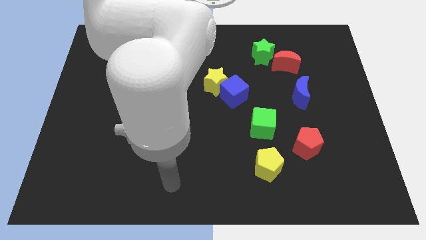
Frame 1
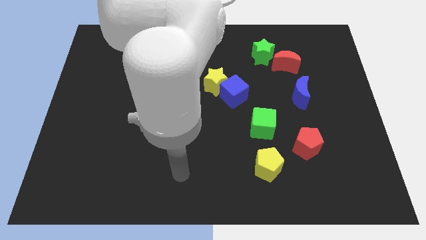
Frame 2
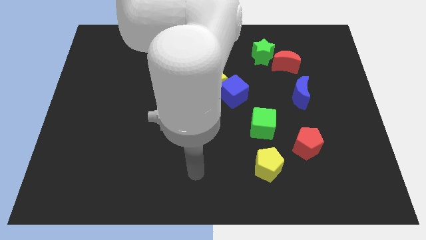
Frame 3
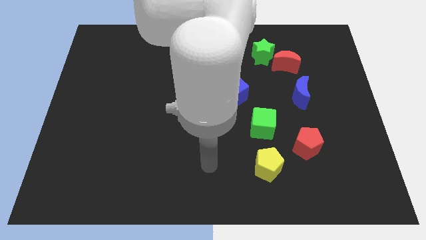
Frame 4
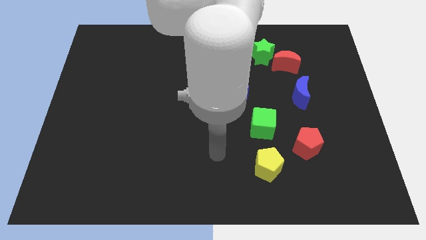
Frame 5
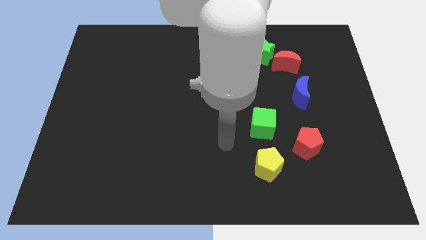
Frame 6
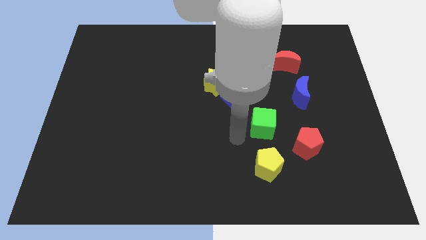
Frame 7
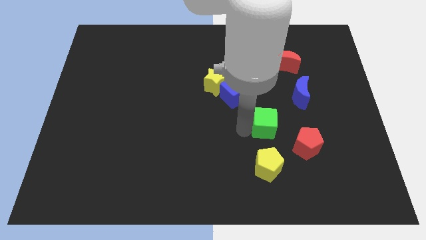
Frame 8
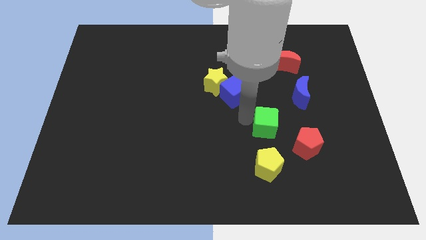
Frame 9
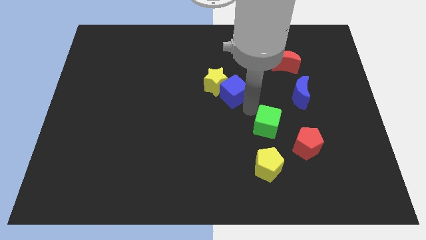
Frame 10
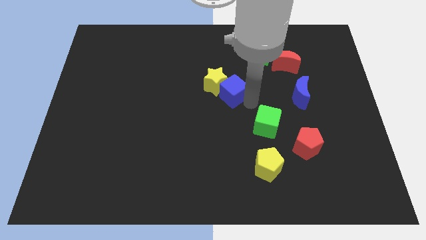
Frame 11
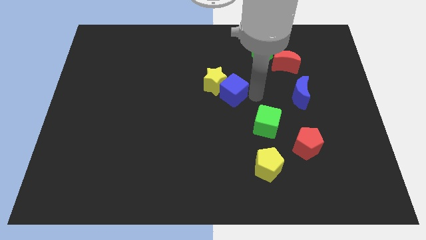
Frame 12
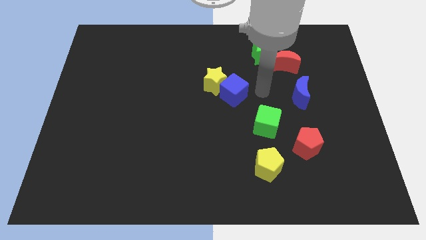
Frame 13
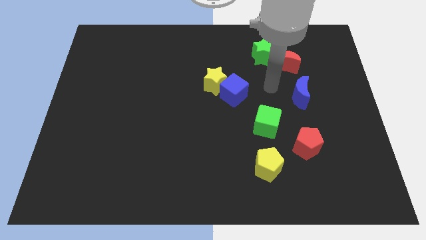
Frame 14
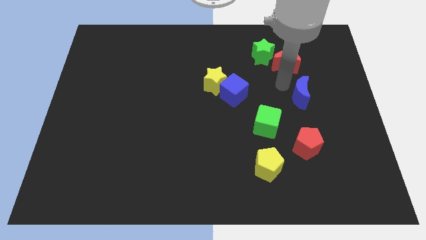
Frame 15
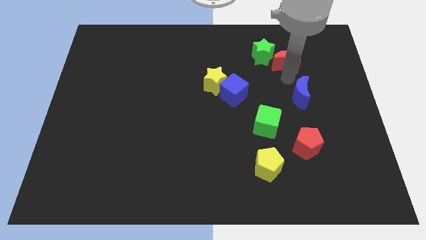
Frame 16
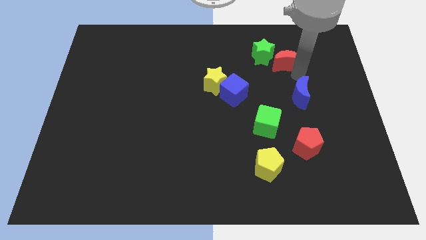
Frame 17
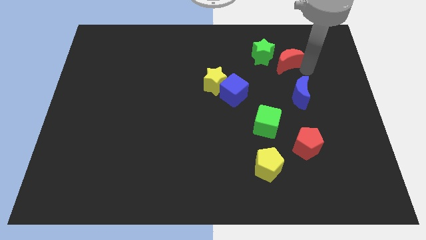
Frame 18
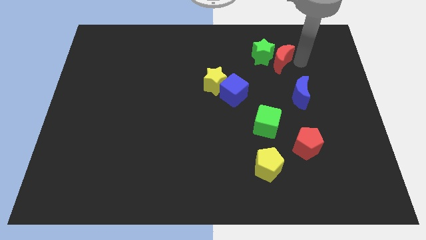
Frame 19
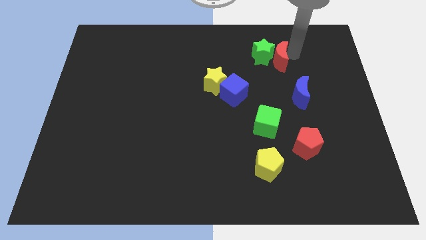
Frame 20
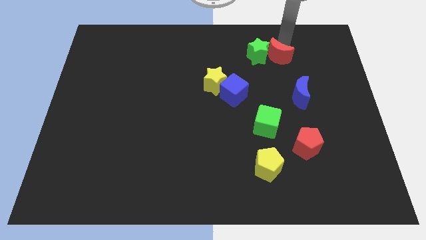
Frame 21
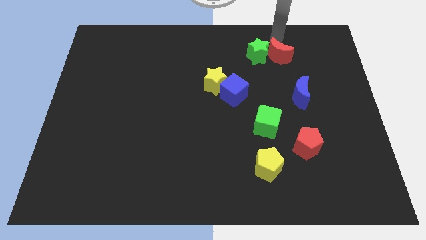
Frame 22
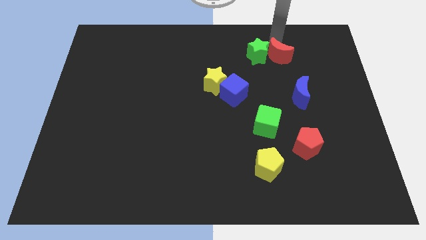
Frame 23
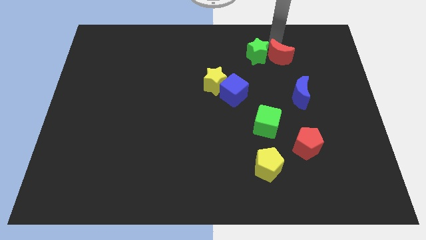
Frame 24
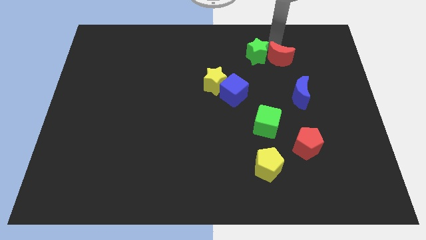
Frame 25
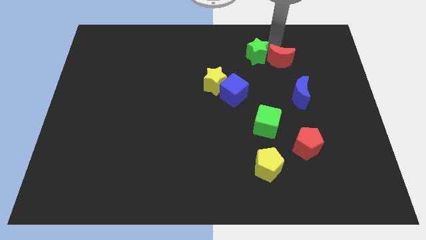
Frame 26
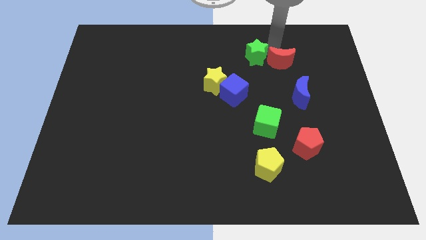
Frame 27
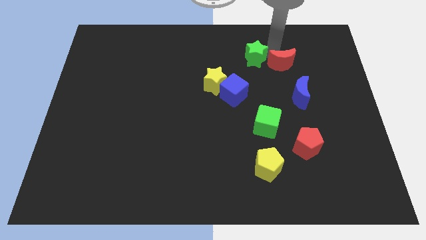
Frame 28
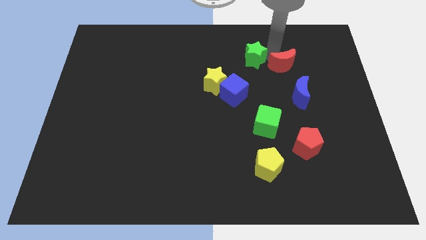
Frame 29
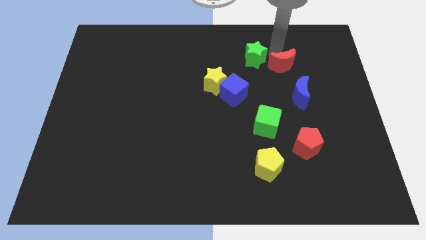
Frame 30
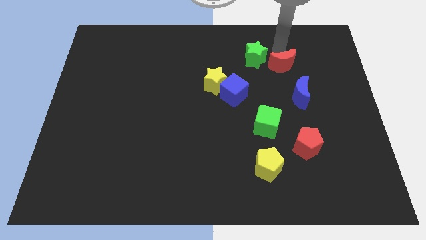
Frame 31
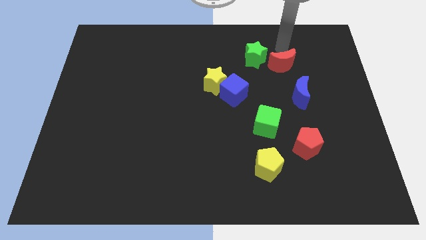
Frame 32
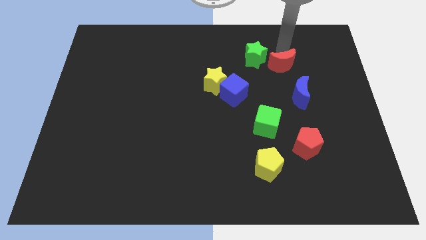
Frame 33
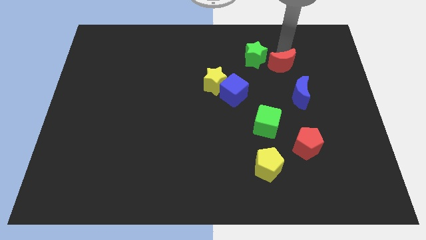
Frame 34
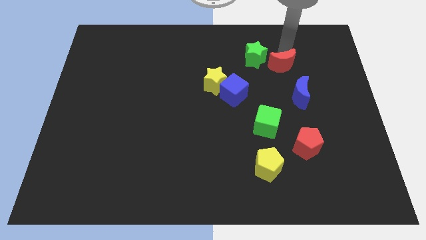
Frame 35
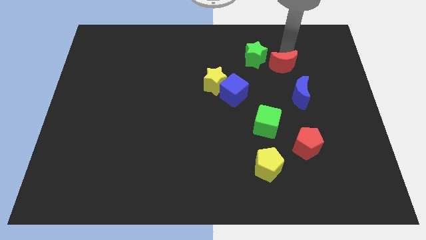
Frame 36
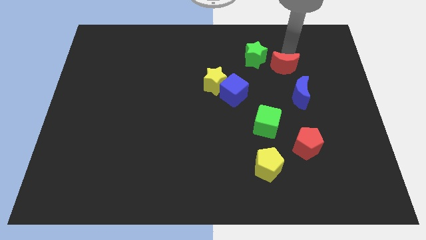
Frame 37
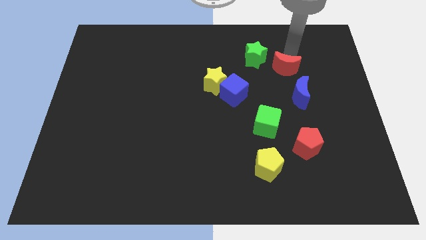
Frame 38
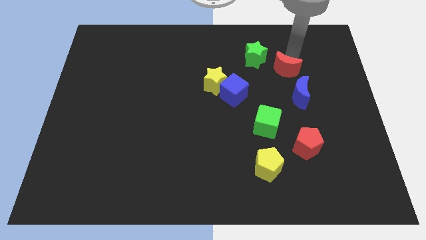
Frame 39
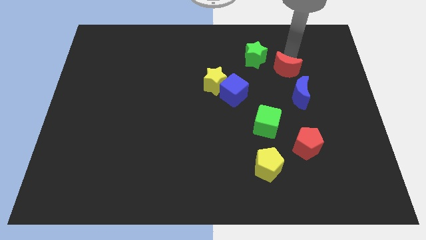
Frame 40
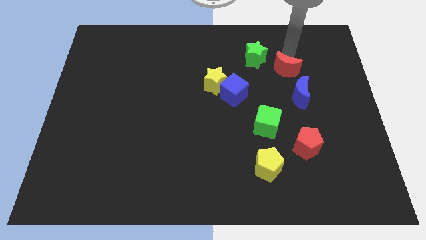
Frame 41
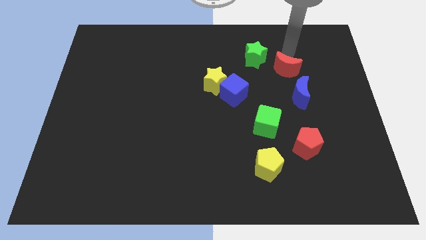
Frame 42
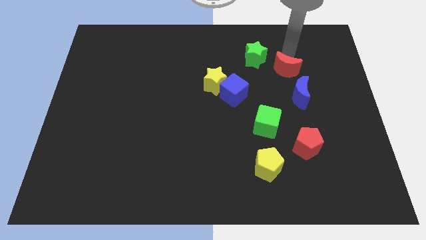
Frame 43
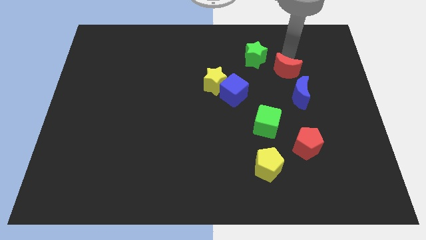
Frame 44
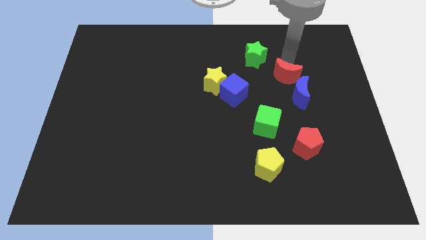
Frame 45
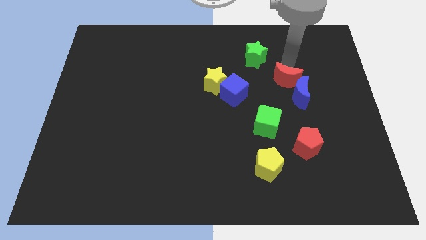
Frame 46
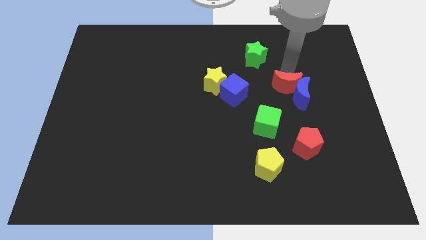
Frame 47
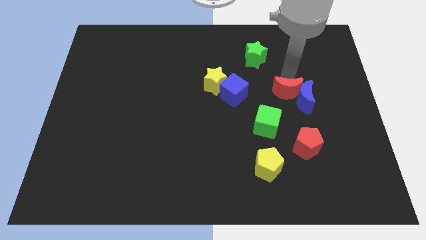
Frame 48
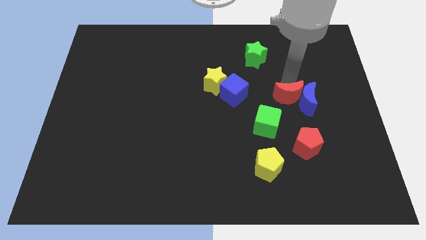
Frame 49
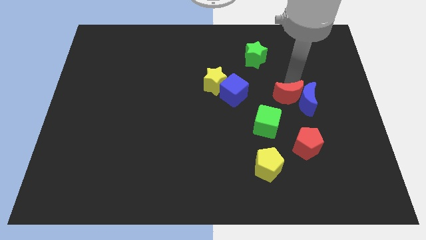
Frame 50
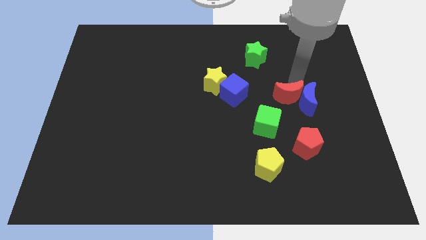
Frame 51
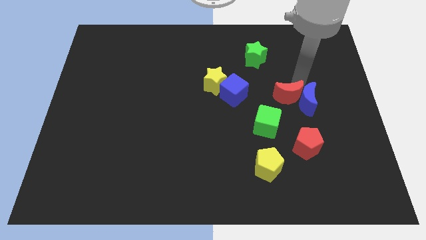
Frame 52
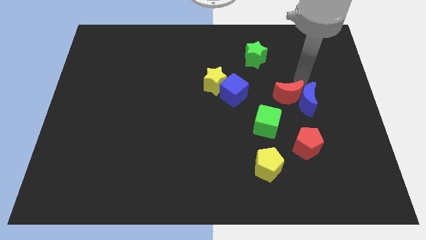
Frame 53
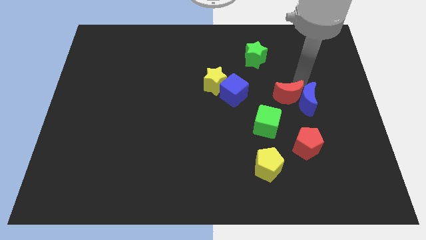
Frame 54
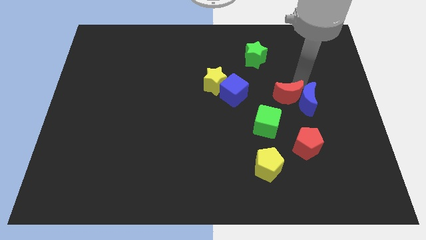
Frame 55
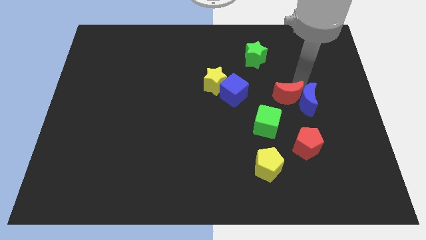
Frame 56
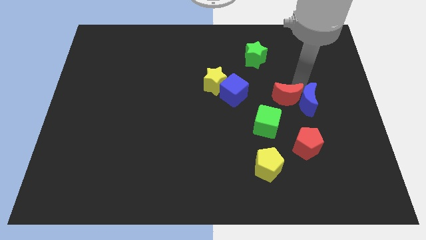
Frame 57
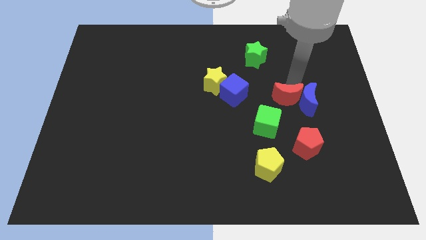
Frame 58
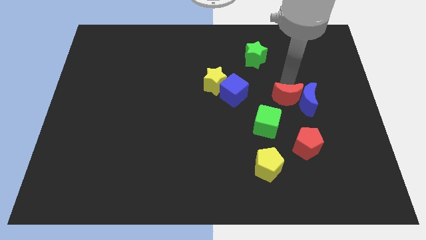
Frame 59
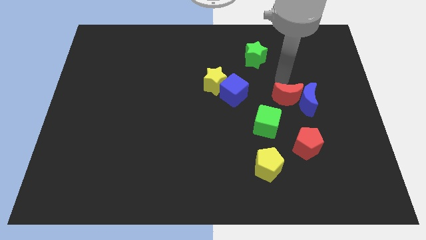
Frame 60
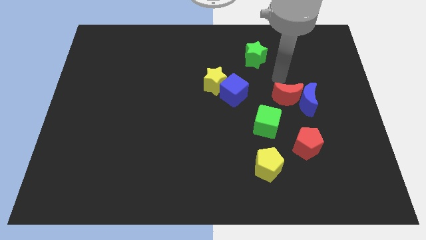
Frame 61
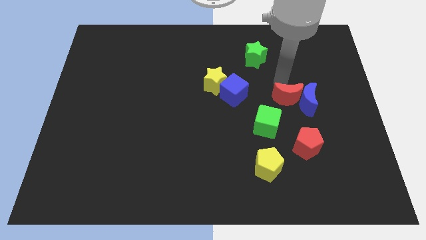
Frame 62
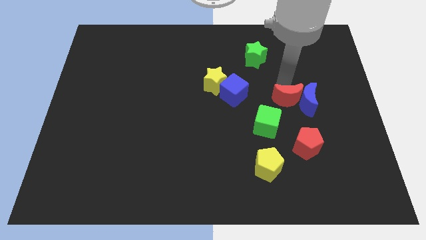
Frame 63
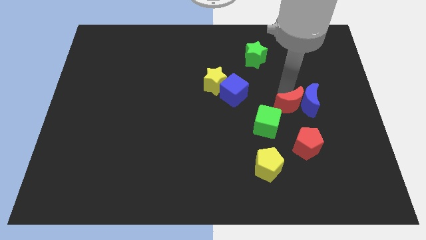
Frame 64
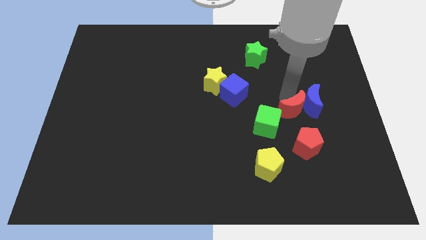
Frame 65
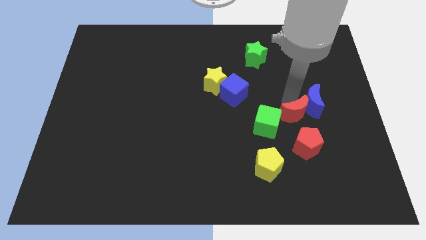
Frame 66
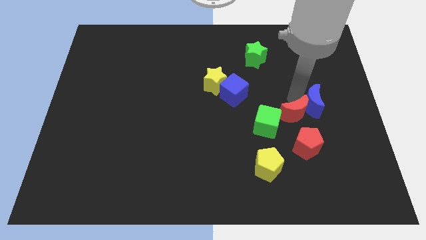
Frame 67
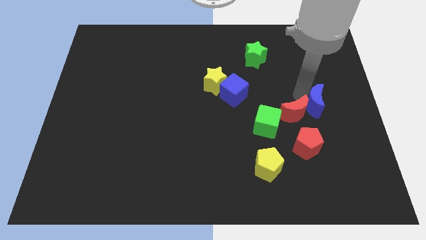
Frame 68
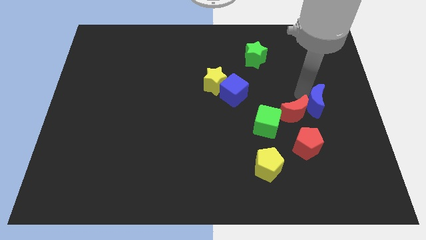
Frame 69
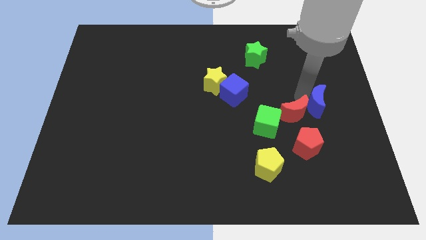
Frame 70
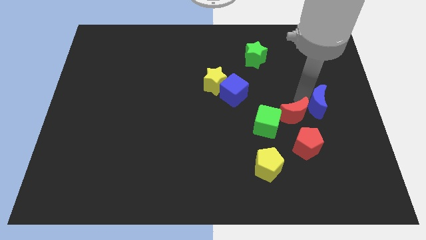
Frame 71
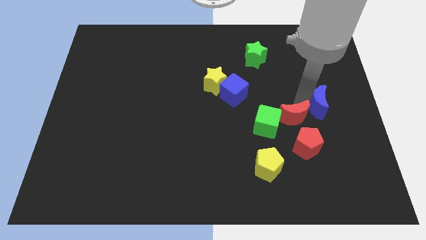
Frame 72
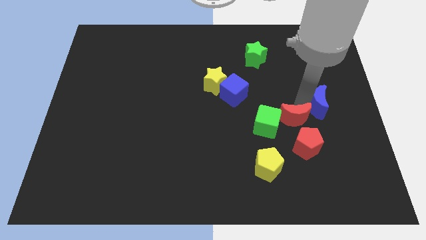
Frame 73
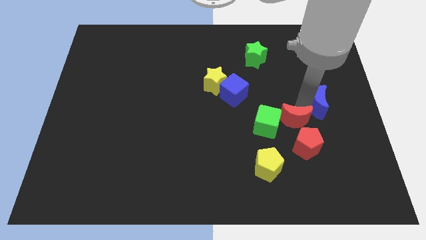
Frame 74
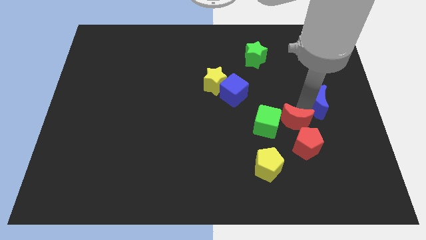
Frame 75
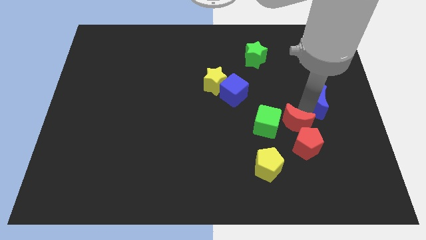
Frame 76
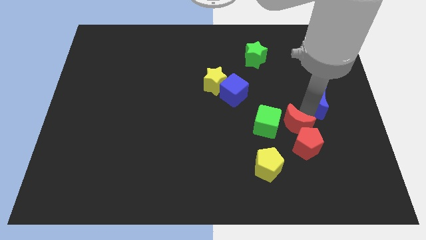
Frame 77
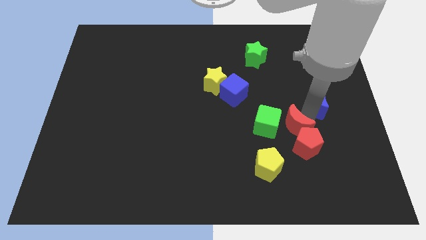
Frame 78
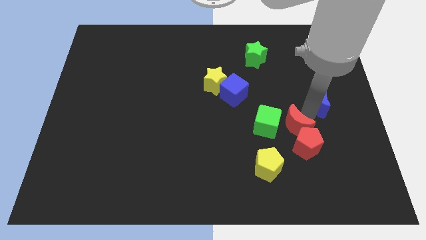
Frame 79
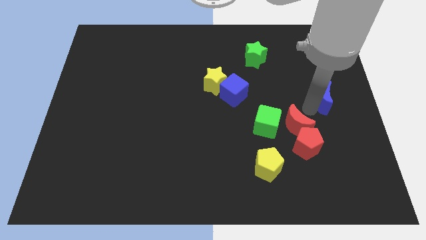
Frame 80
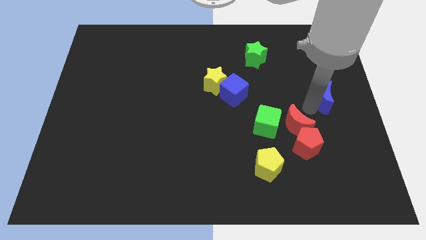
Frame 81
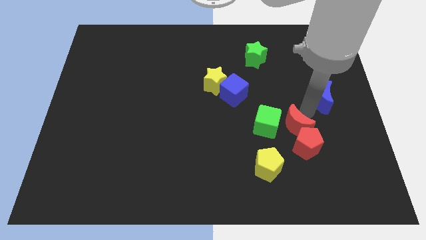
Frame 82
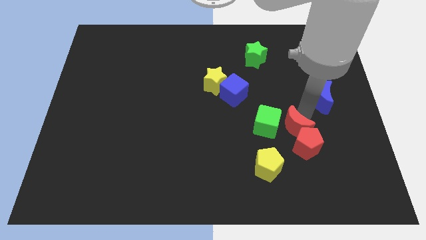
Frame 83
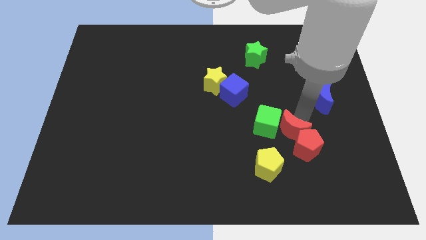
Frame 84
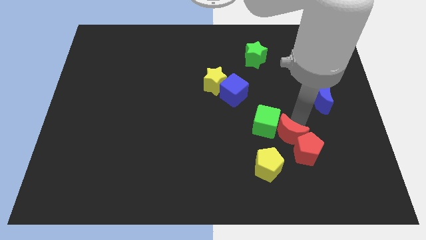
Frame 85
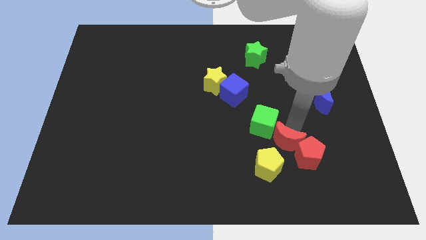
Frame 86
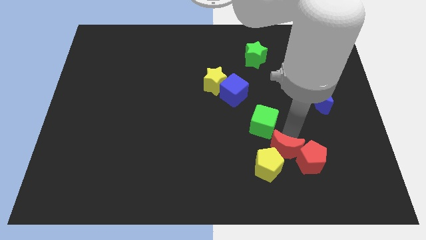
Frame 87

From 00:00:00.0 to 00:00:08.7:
push the red moon towards the yellow pentagon
